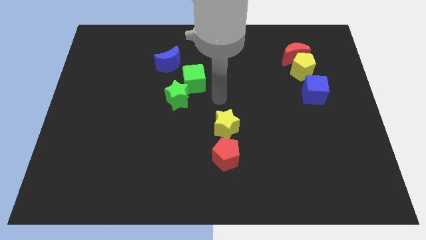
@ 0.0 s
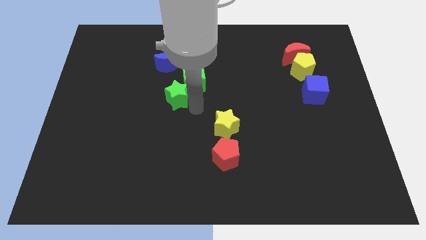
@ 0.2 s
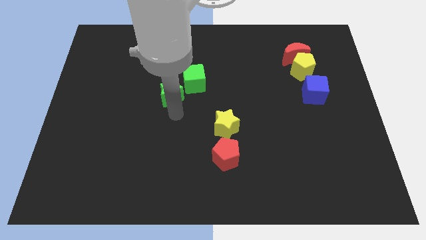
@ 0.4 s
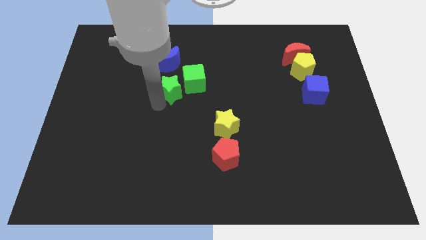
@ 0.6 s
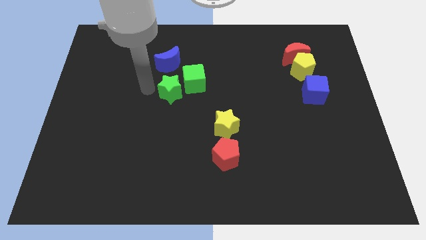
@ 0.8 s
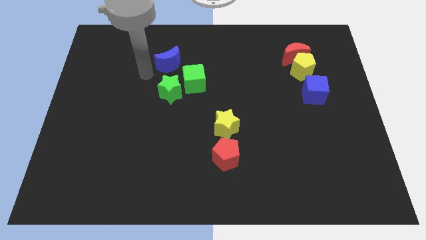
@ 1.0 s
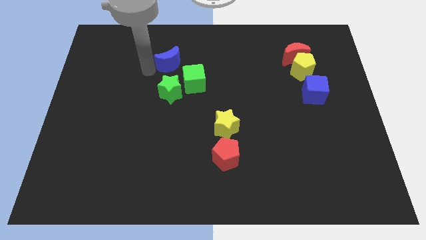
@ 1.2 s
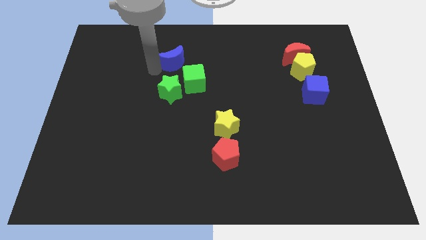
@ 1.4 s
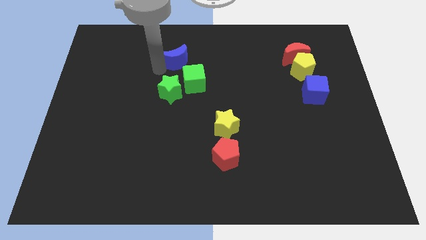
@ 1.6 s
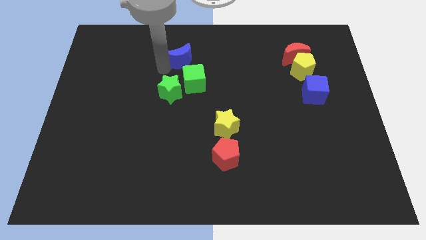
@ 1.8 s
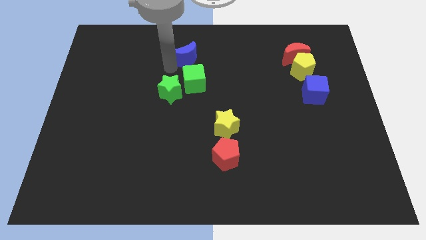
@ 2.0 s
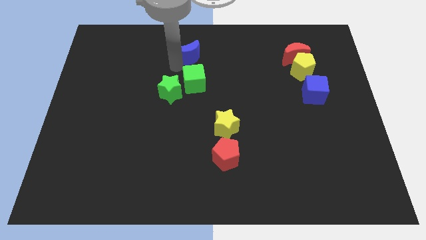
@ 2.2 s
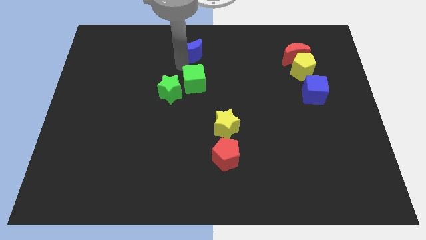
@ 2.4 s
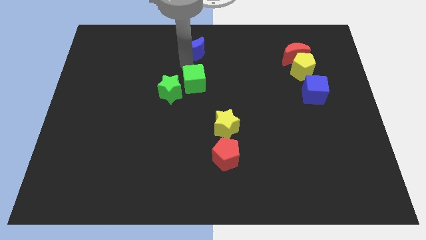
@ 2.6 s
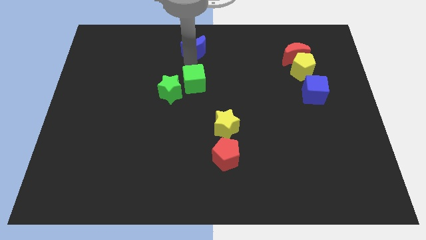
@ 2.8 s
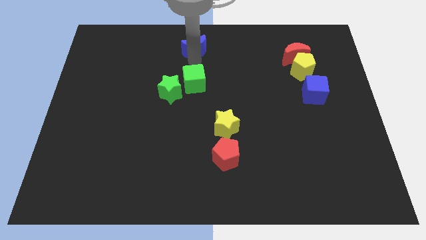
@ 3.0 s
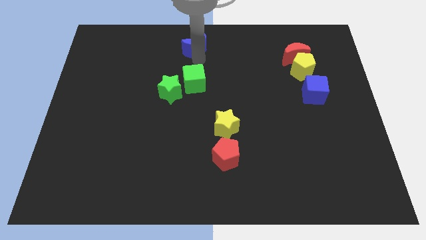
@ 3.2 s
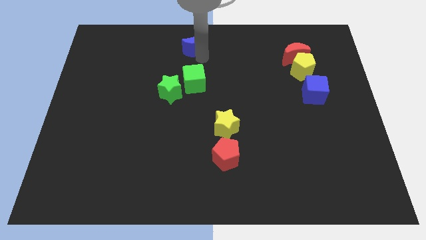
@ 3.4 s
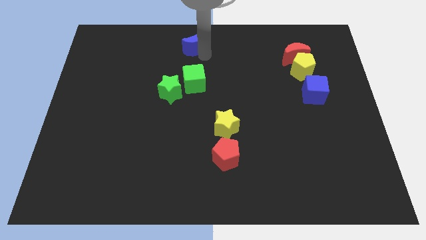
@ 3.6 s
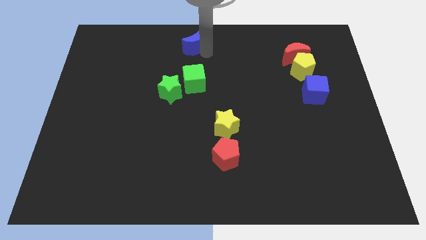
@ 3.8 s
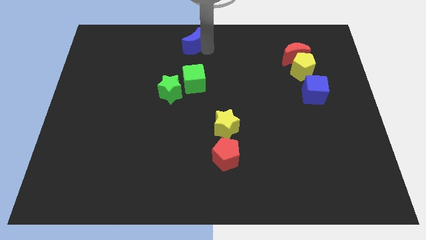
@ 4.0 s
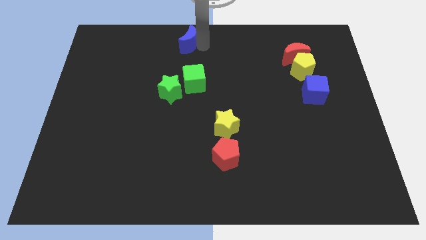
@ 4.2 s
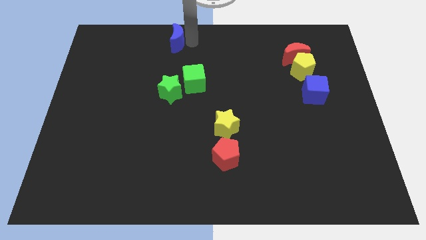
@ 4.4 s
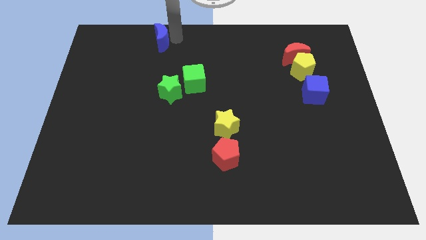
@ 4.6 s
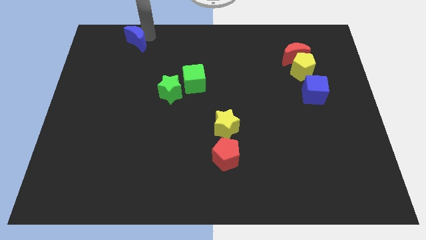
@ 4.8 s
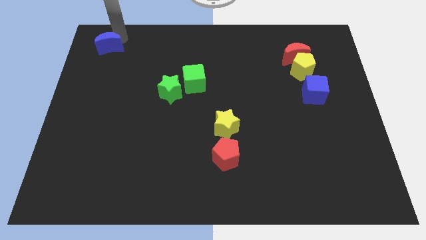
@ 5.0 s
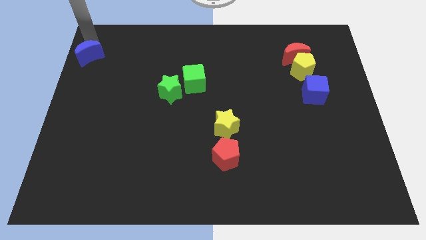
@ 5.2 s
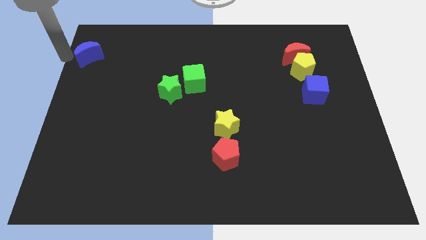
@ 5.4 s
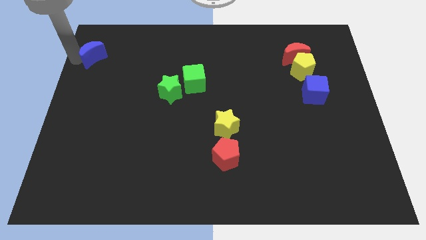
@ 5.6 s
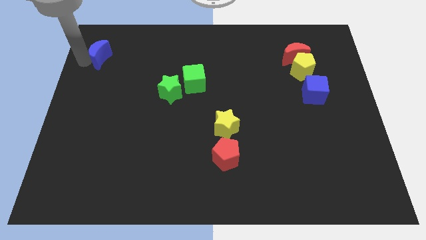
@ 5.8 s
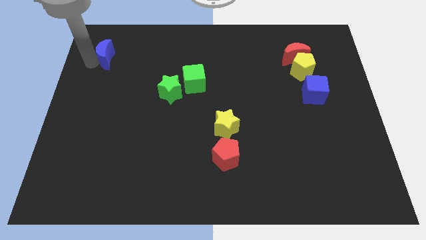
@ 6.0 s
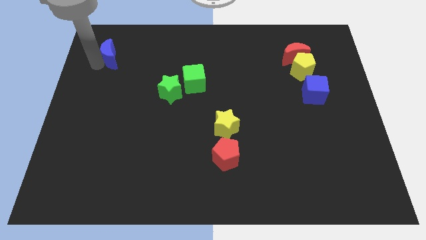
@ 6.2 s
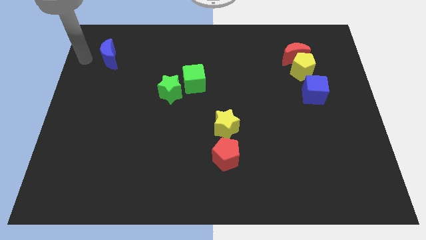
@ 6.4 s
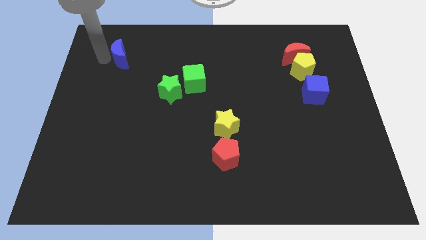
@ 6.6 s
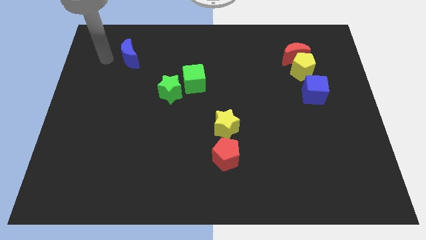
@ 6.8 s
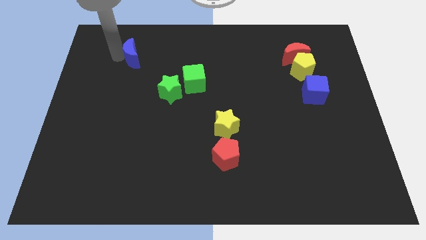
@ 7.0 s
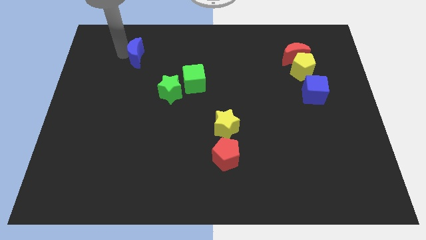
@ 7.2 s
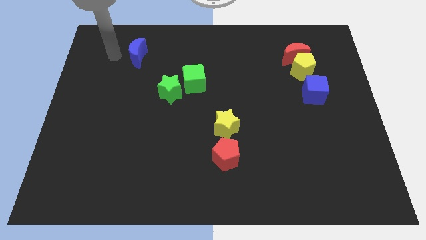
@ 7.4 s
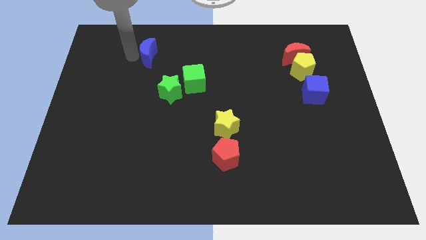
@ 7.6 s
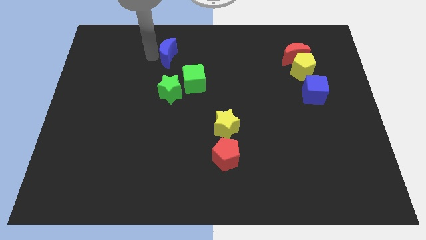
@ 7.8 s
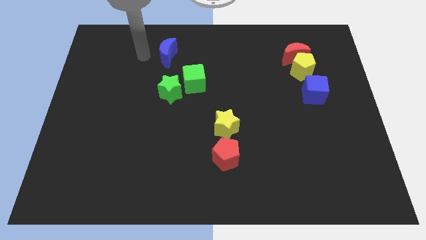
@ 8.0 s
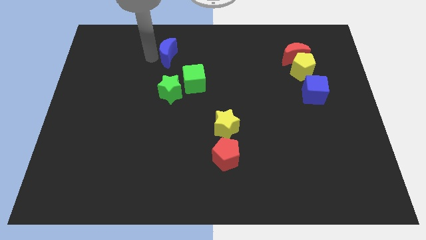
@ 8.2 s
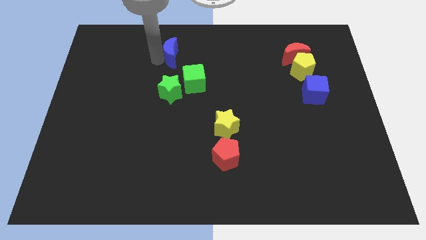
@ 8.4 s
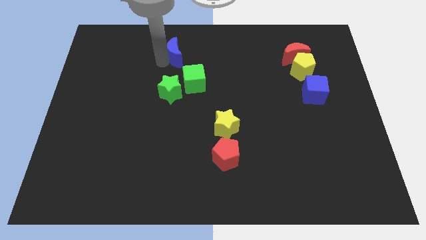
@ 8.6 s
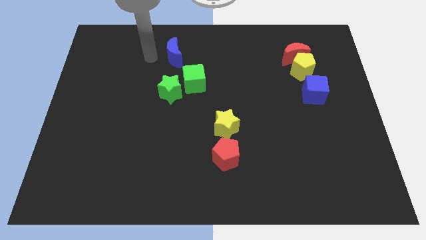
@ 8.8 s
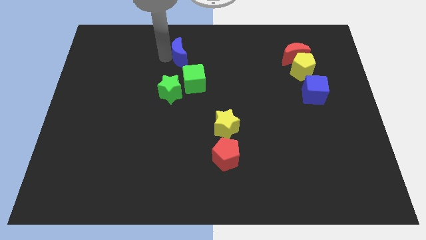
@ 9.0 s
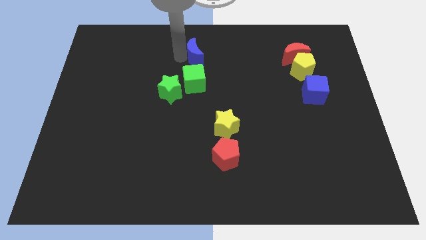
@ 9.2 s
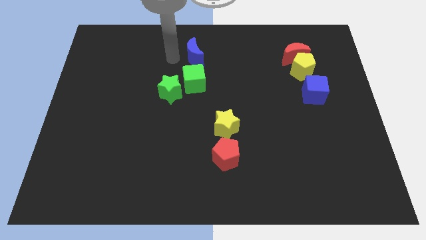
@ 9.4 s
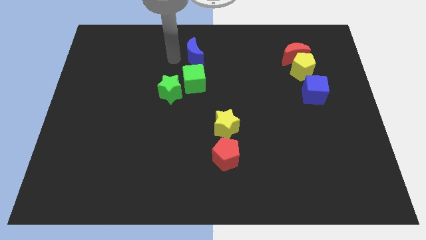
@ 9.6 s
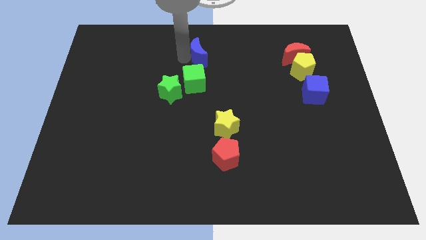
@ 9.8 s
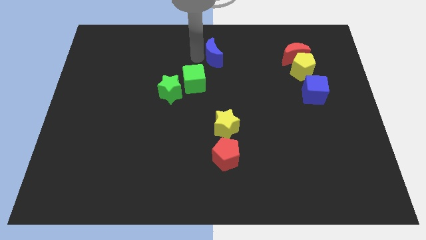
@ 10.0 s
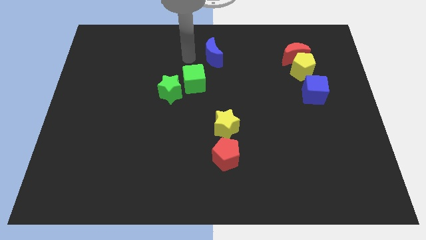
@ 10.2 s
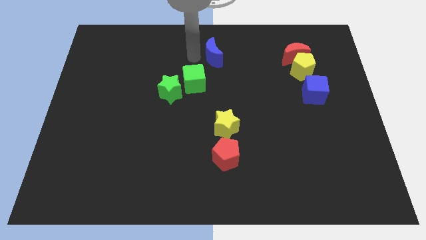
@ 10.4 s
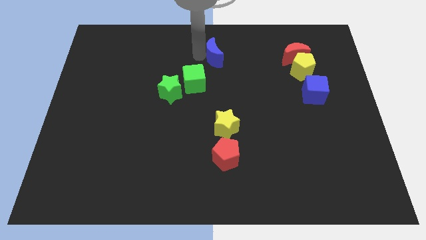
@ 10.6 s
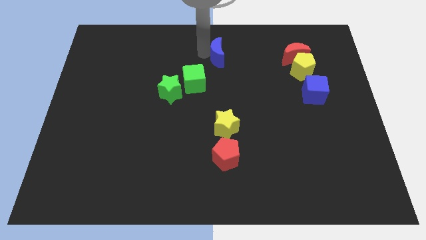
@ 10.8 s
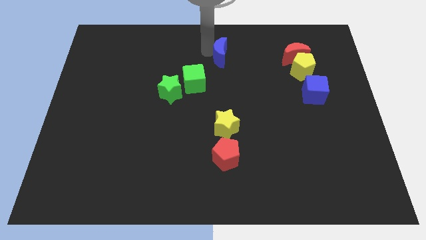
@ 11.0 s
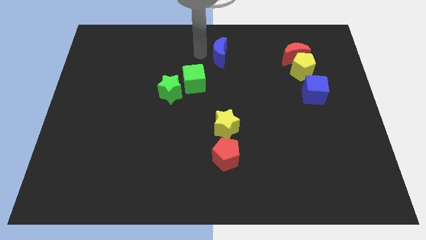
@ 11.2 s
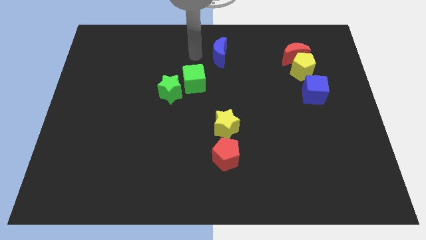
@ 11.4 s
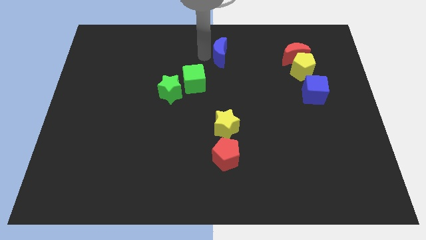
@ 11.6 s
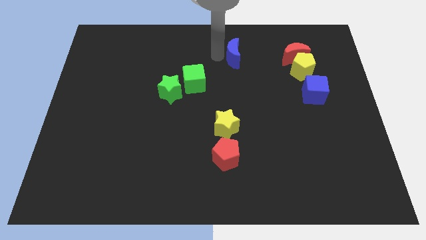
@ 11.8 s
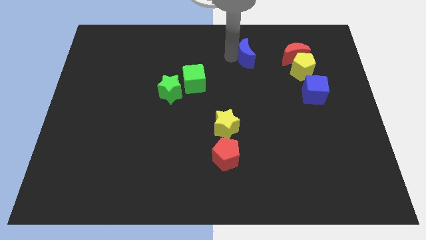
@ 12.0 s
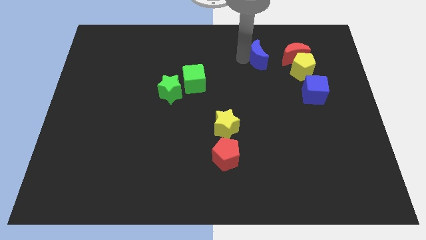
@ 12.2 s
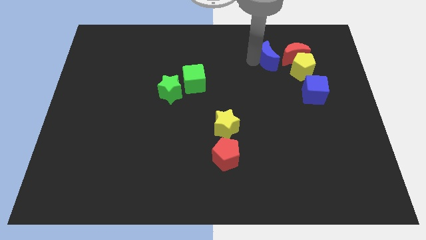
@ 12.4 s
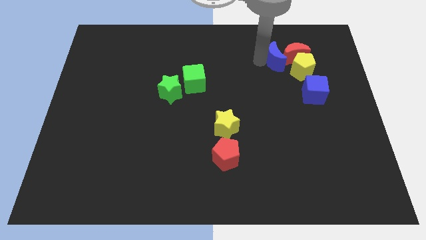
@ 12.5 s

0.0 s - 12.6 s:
push the blue moon to the red moon
